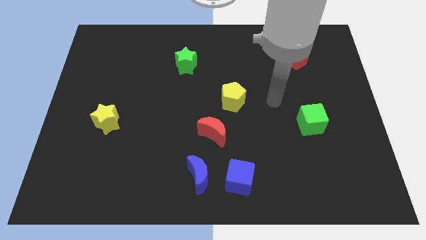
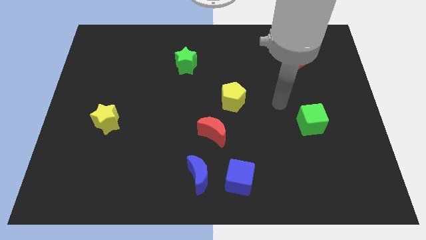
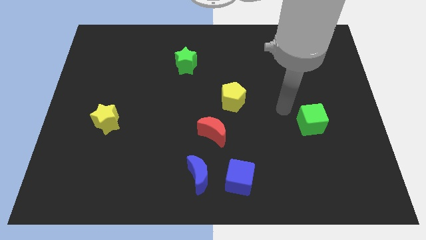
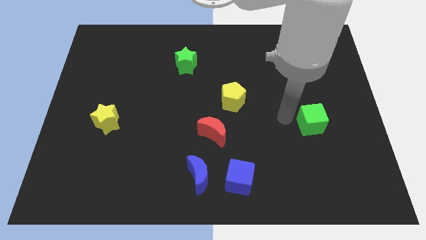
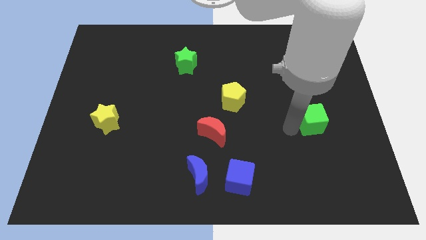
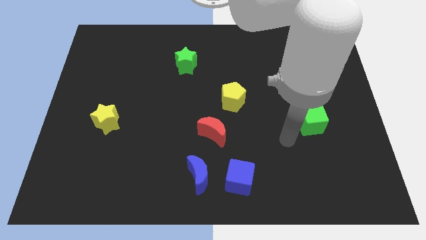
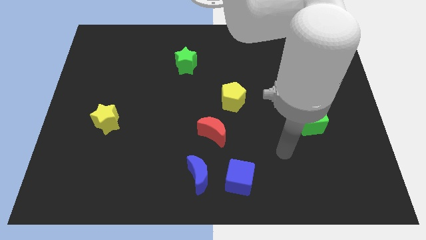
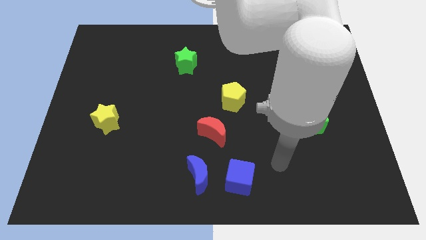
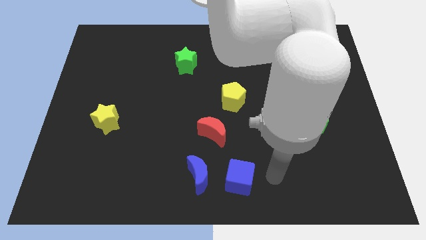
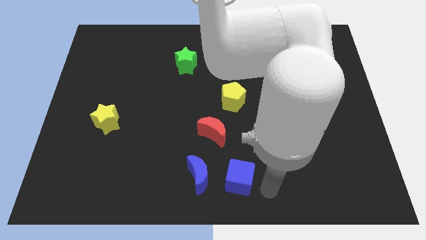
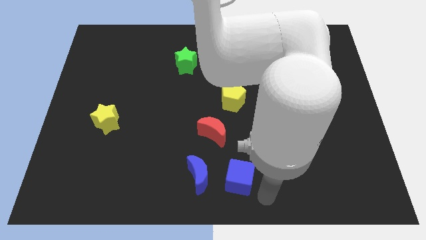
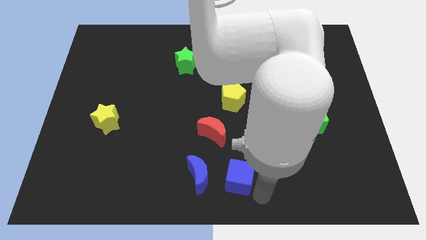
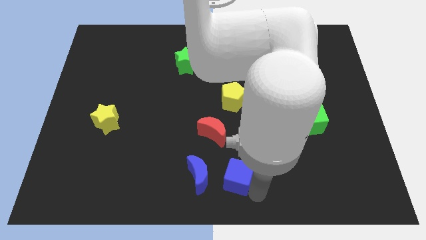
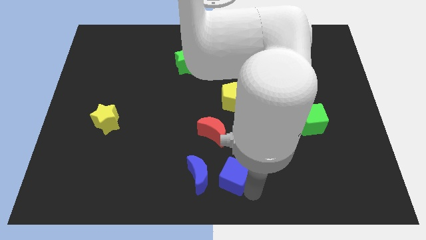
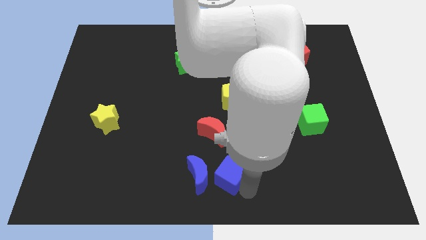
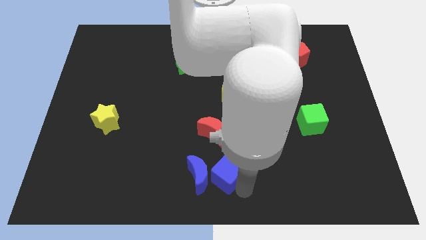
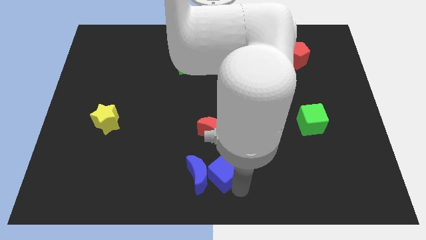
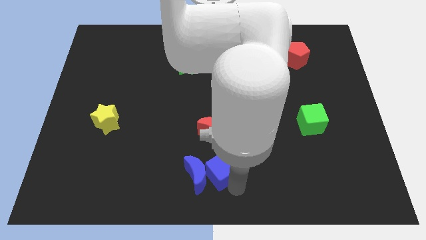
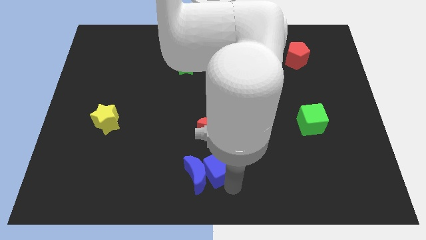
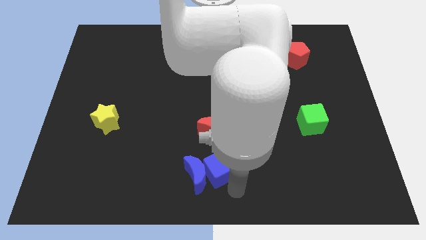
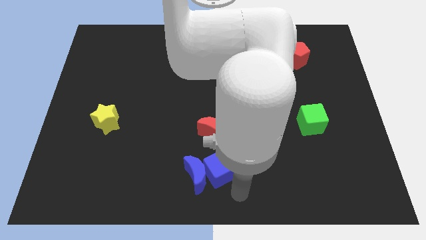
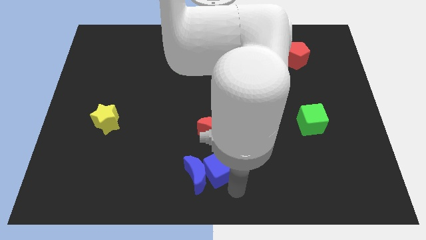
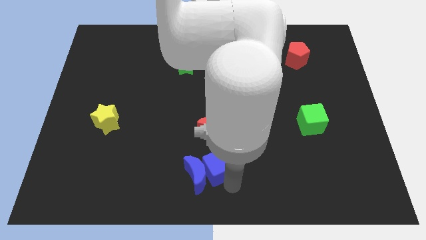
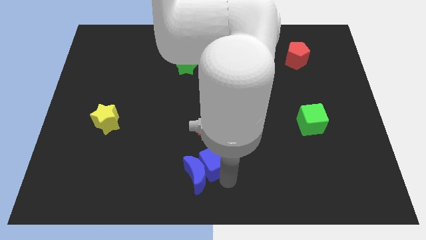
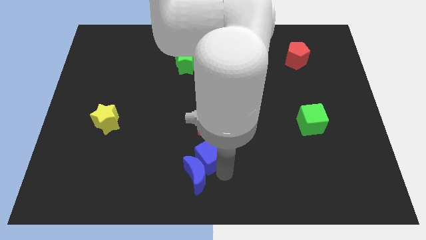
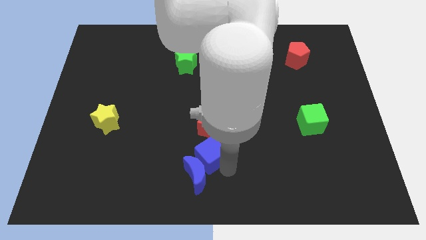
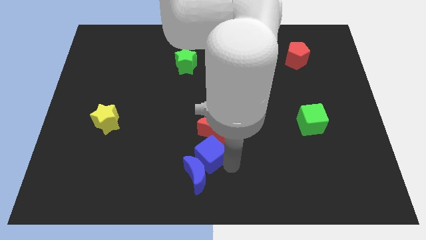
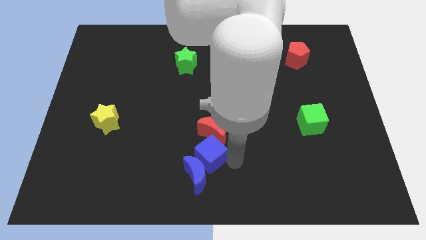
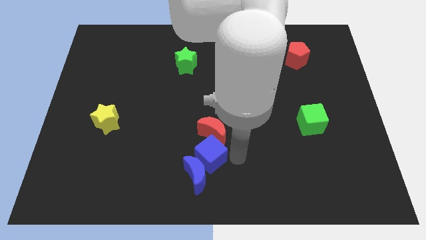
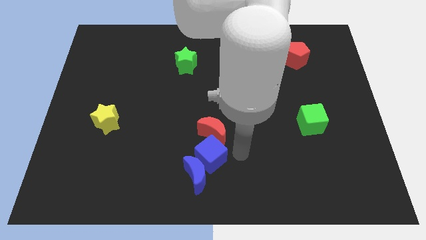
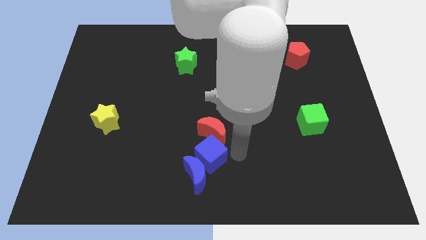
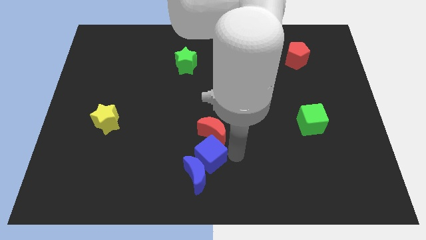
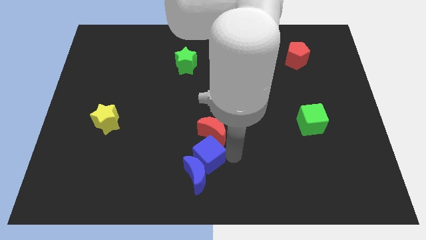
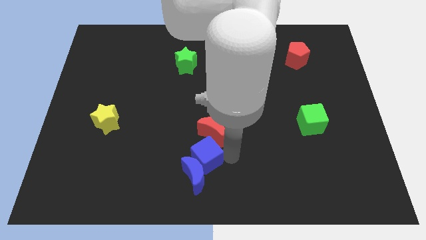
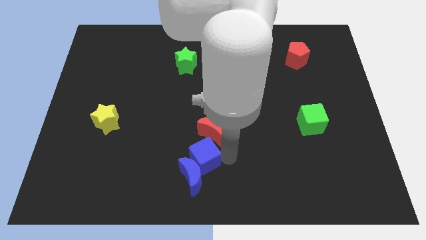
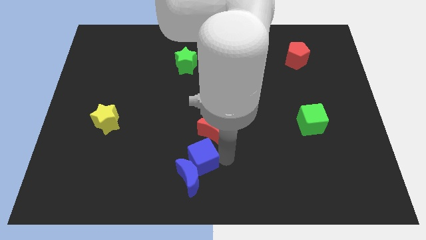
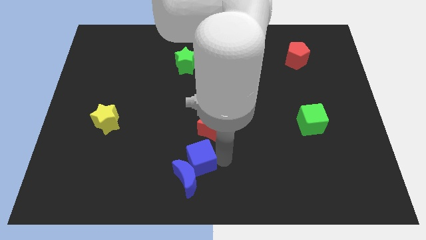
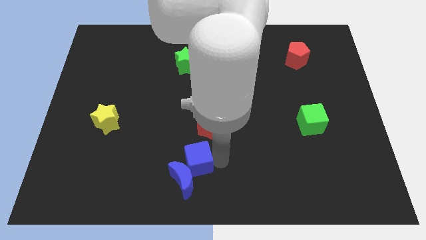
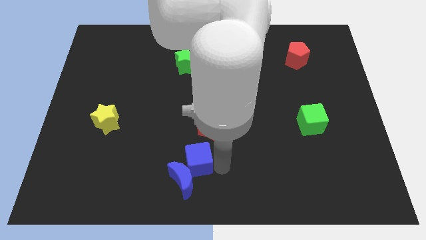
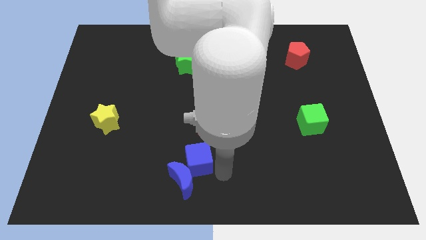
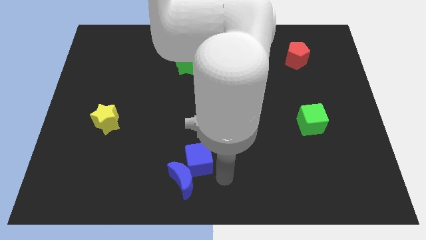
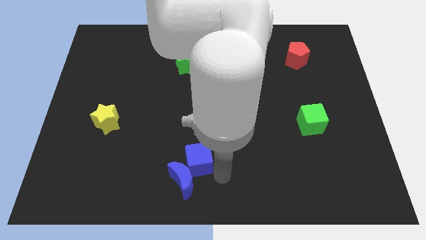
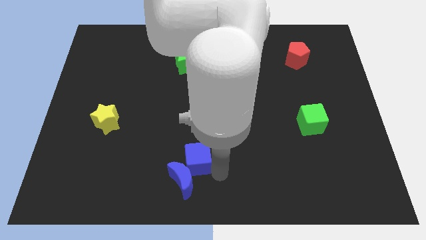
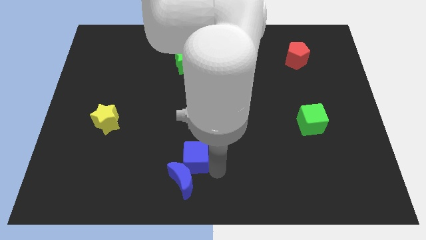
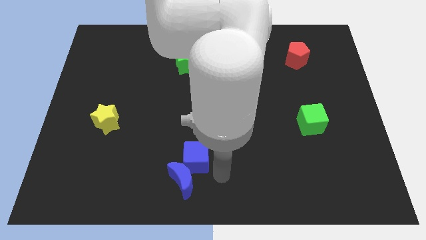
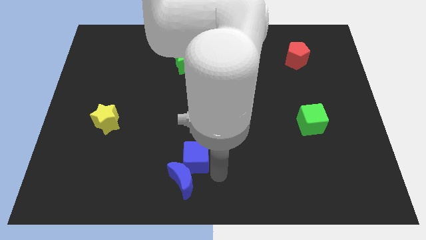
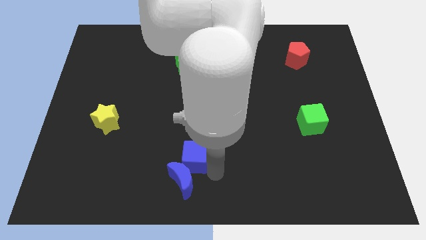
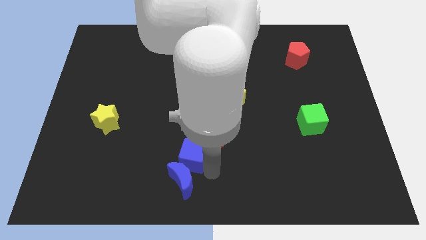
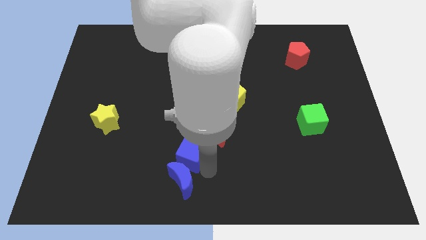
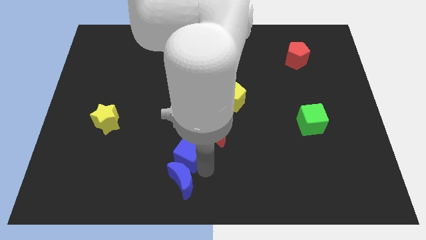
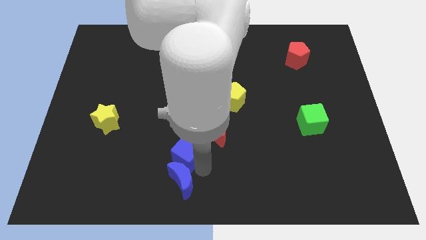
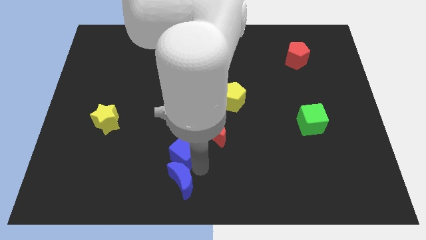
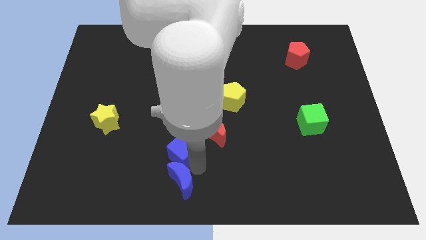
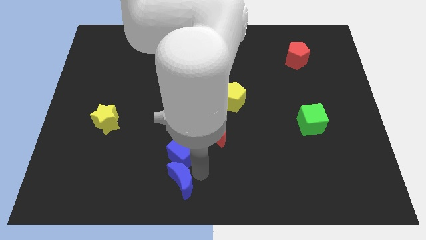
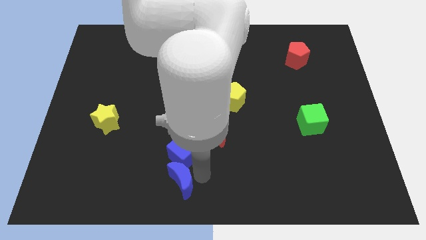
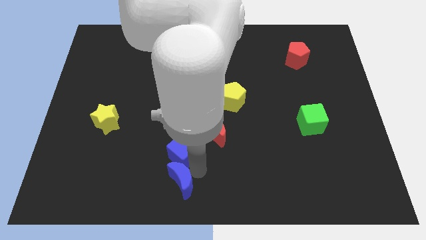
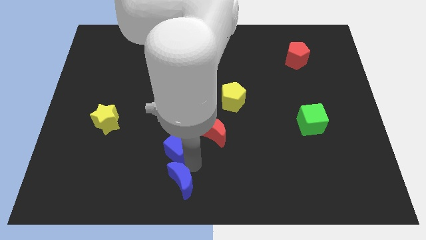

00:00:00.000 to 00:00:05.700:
push the blue cube just left of the red moon

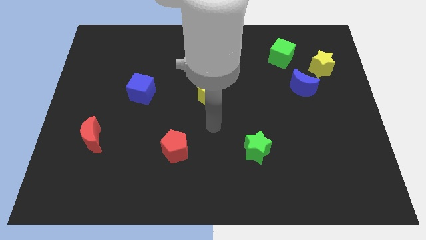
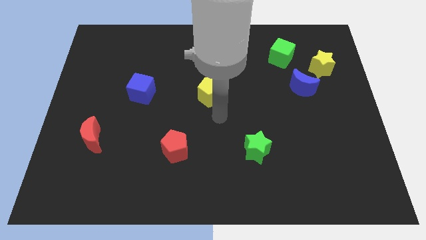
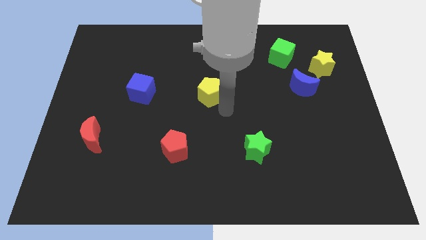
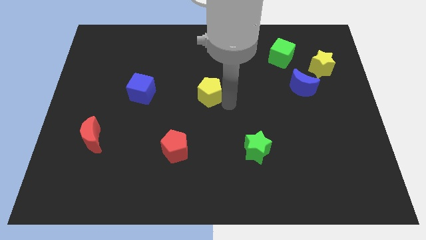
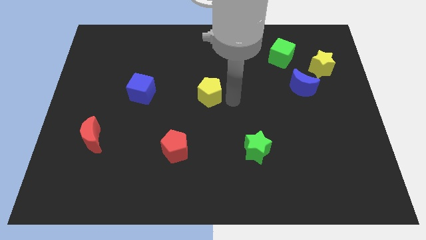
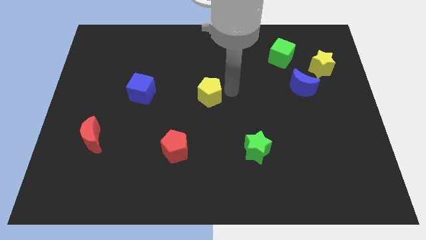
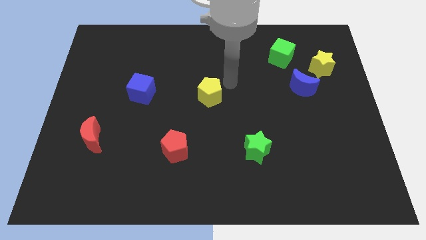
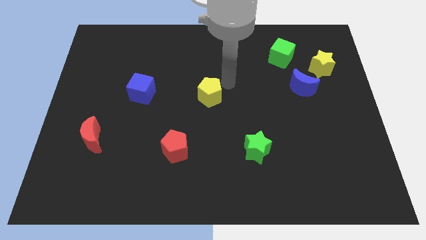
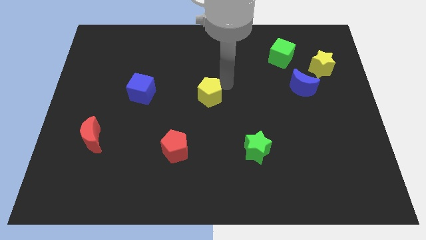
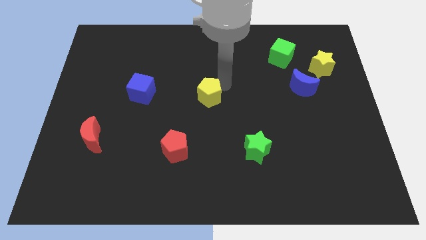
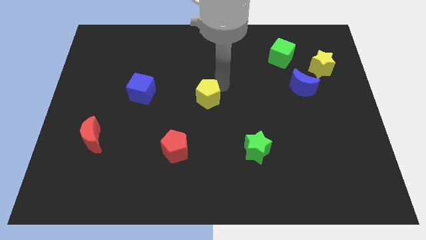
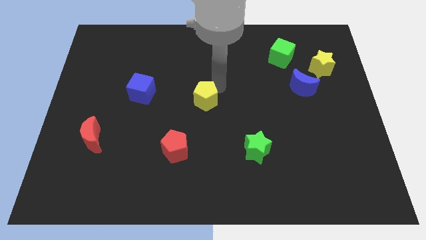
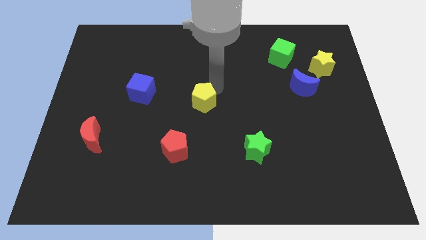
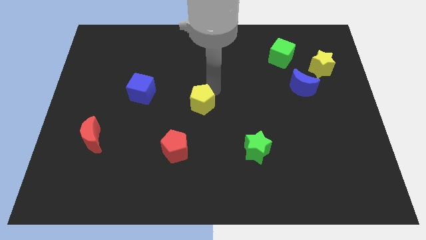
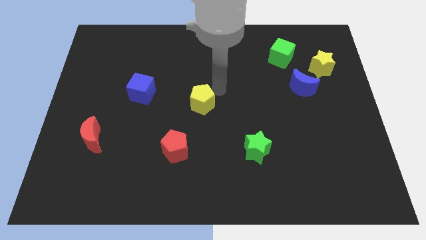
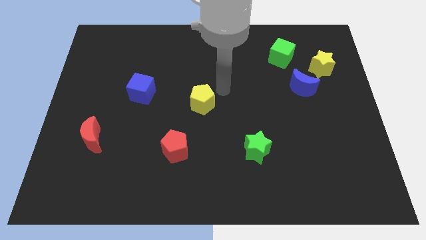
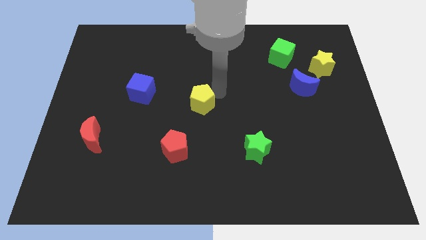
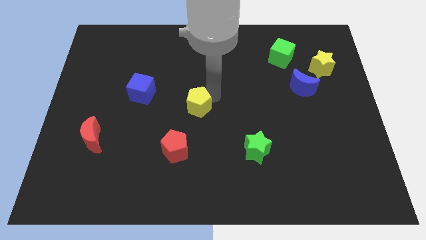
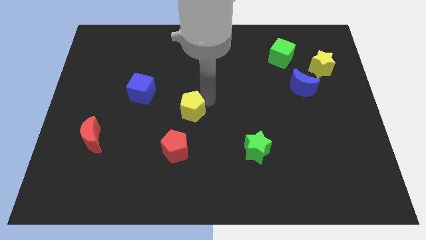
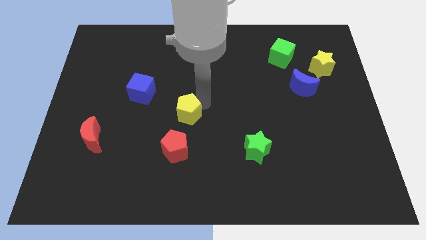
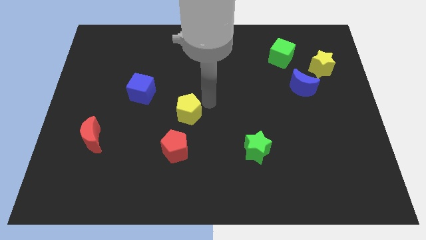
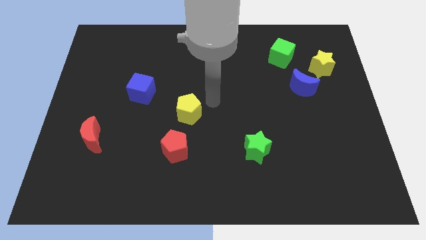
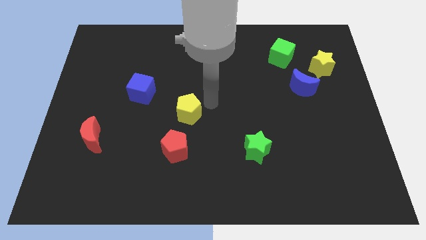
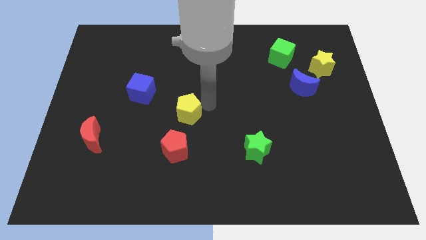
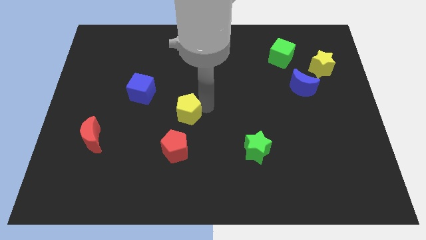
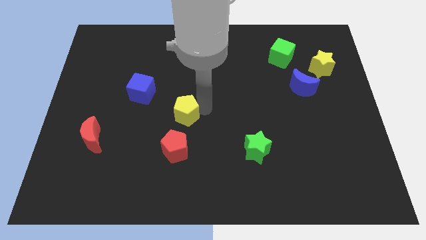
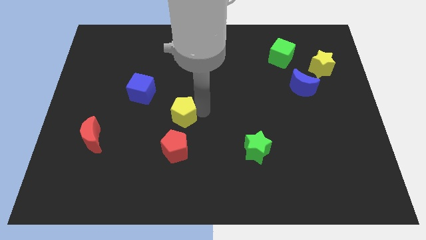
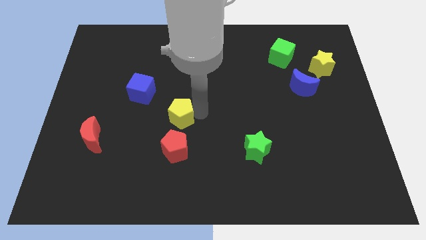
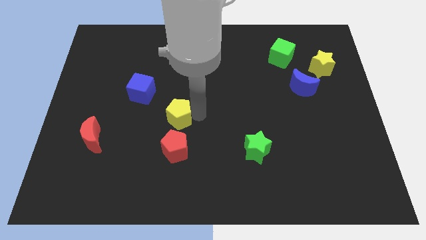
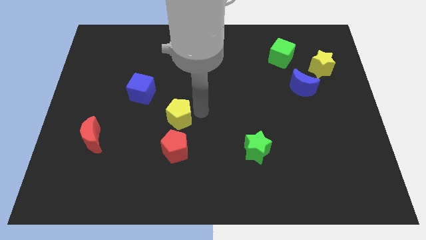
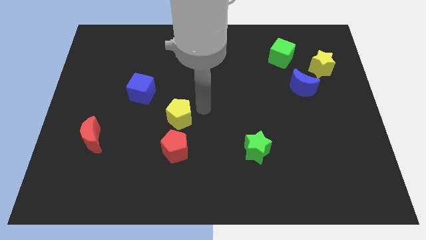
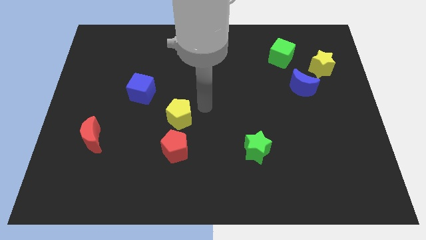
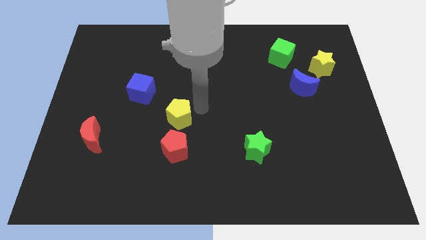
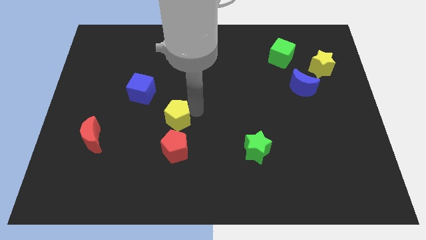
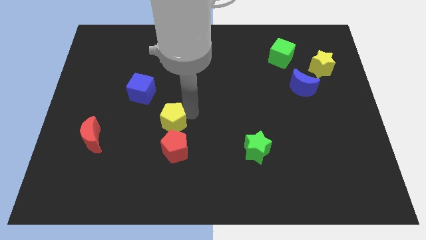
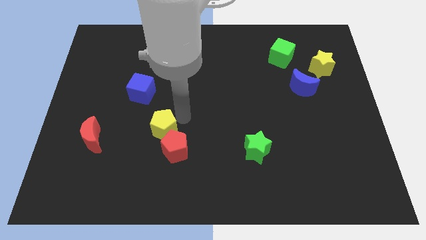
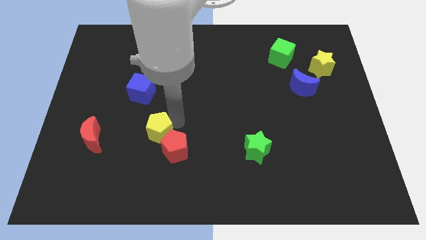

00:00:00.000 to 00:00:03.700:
put the yellow pentagon to the right side of the red moon
